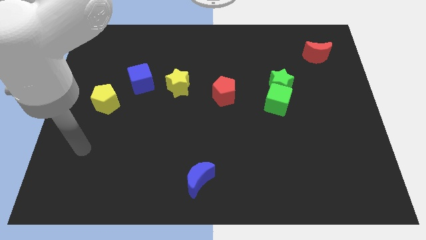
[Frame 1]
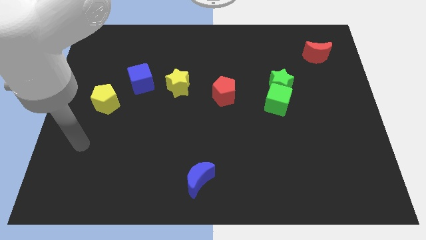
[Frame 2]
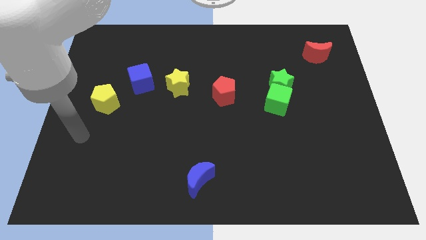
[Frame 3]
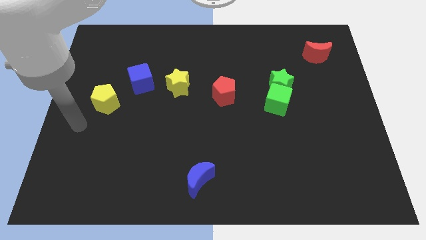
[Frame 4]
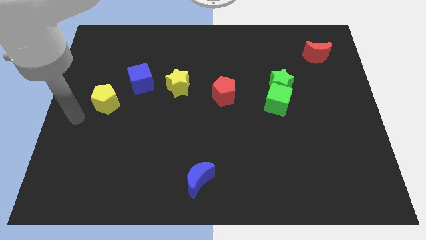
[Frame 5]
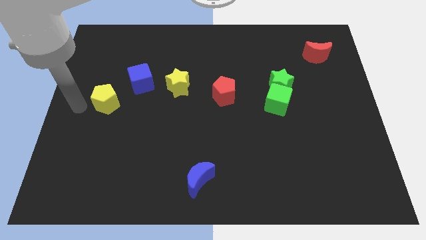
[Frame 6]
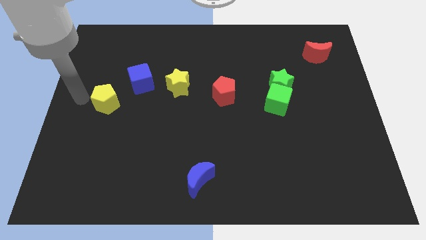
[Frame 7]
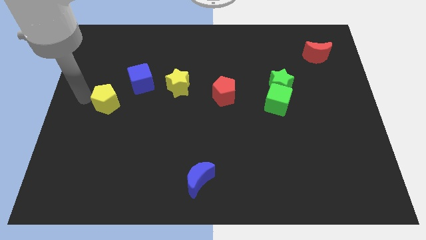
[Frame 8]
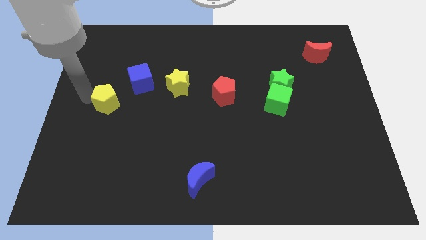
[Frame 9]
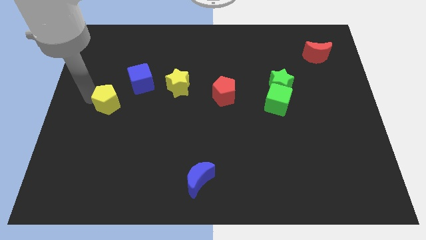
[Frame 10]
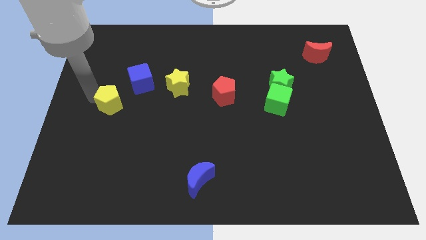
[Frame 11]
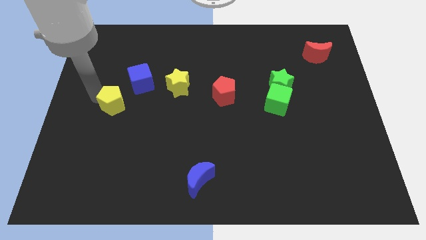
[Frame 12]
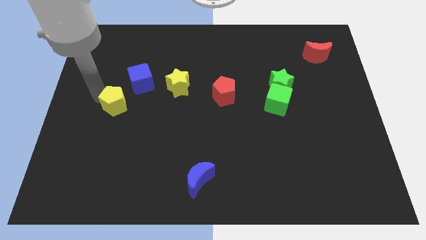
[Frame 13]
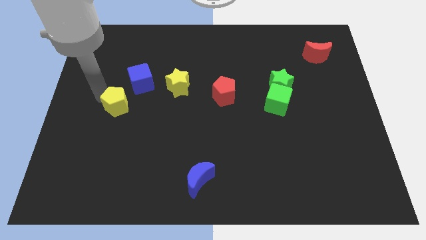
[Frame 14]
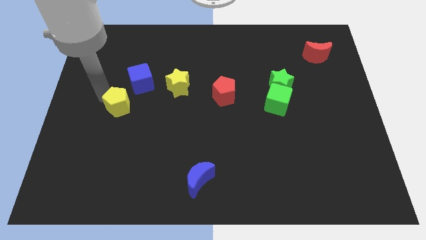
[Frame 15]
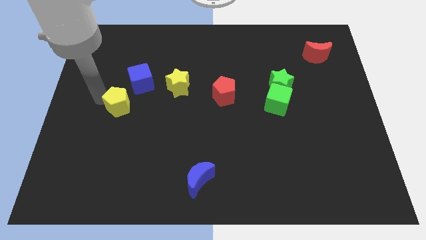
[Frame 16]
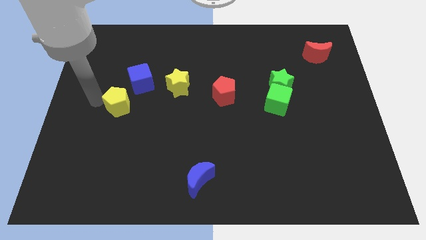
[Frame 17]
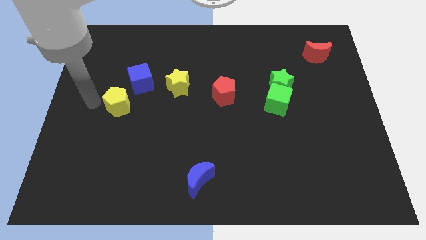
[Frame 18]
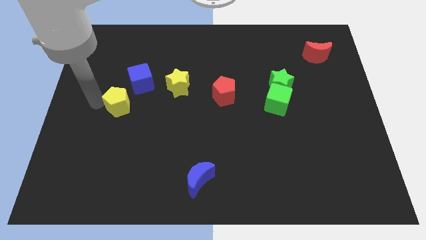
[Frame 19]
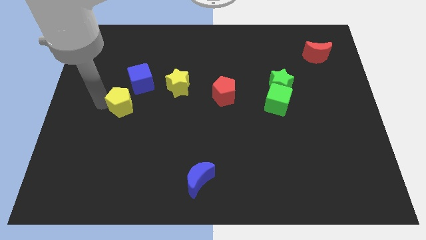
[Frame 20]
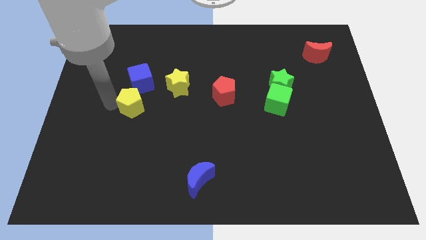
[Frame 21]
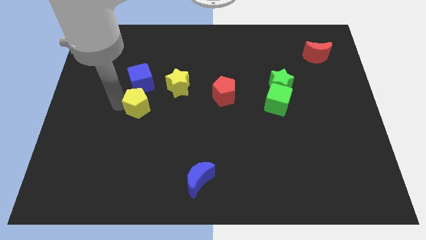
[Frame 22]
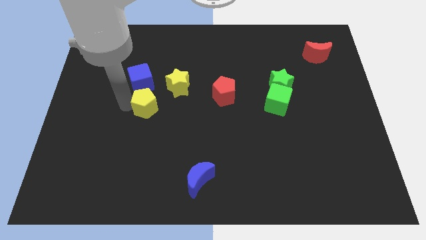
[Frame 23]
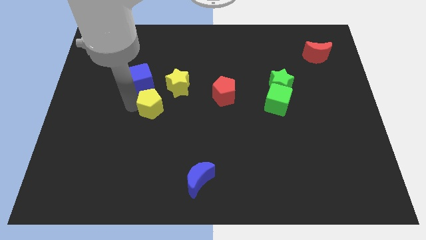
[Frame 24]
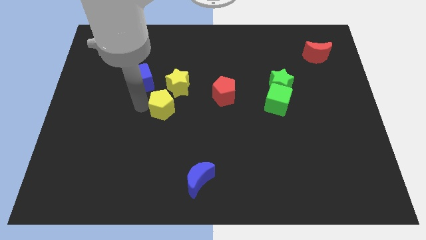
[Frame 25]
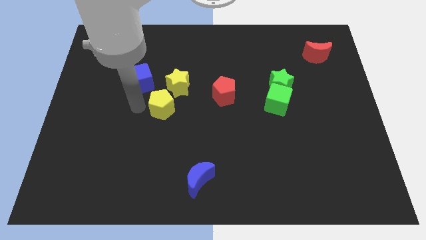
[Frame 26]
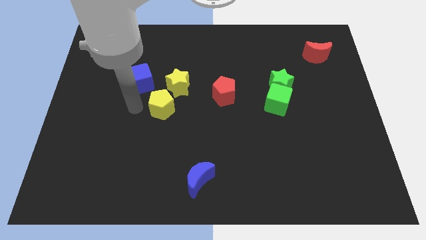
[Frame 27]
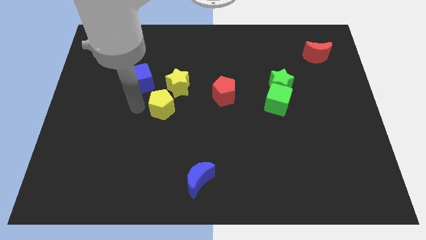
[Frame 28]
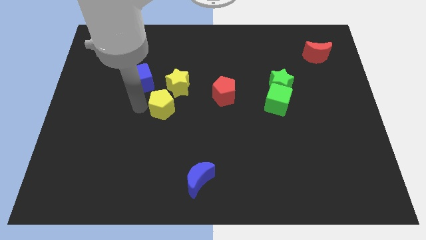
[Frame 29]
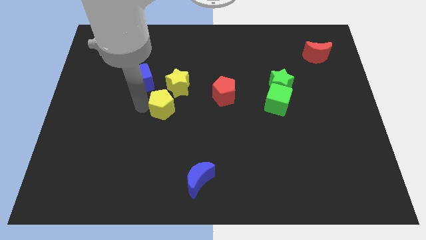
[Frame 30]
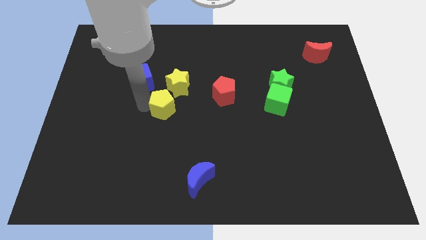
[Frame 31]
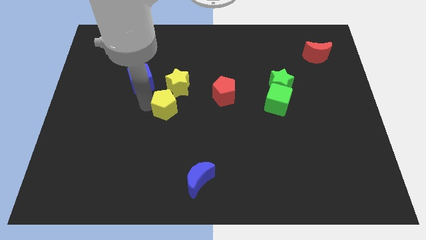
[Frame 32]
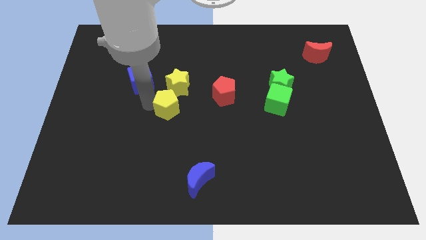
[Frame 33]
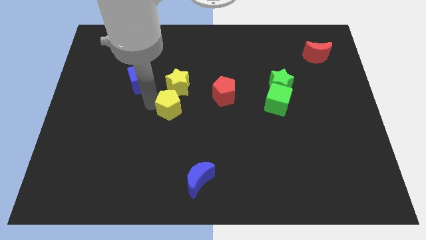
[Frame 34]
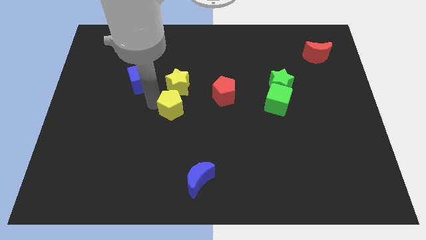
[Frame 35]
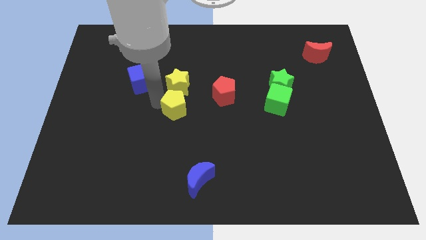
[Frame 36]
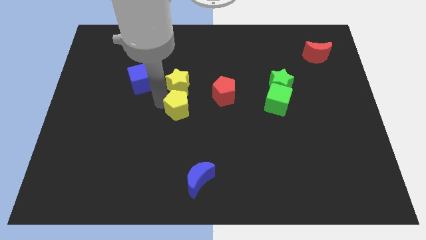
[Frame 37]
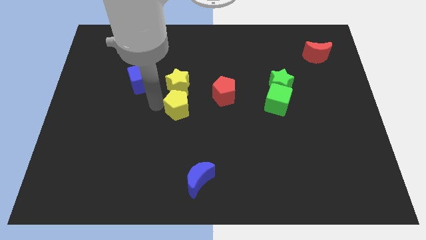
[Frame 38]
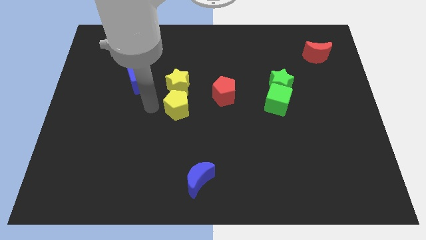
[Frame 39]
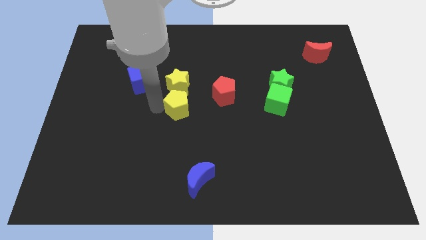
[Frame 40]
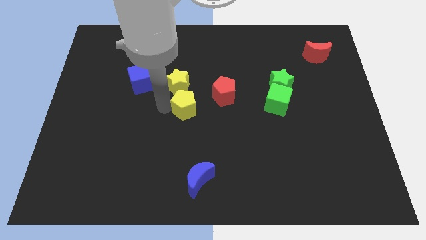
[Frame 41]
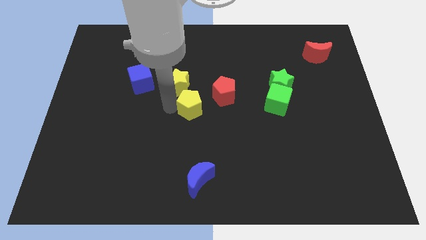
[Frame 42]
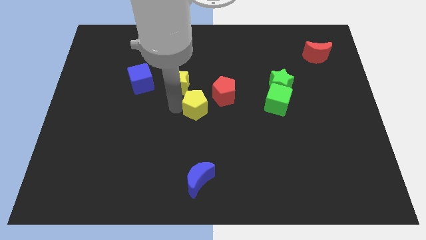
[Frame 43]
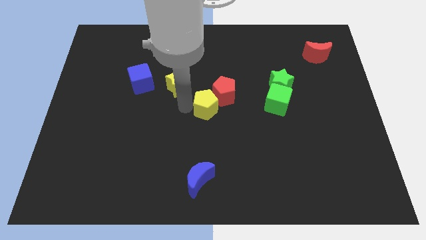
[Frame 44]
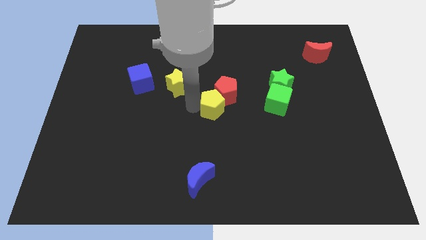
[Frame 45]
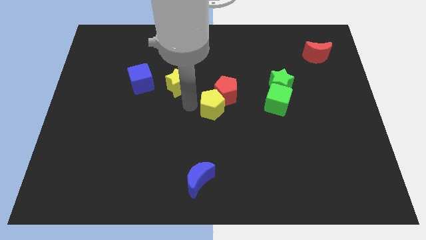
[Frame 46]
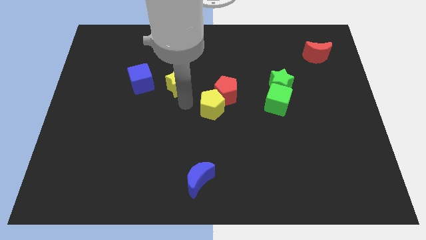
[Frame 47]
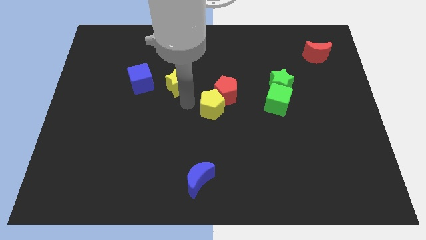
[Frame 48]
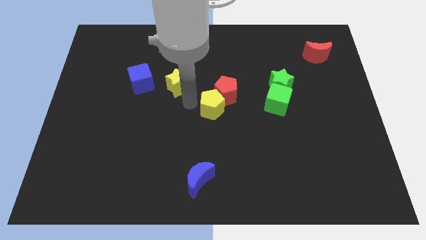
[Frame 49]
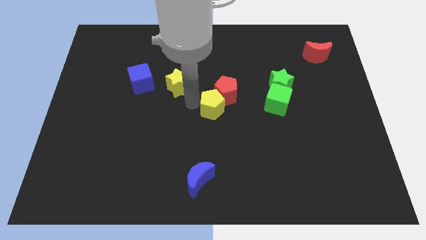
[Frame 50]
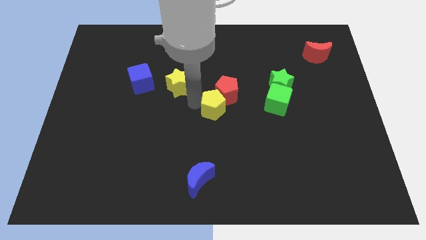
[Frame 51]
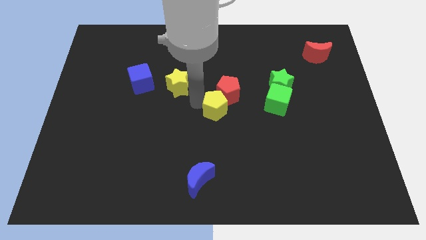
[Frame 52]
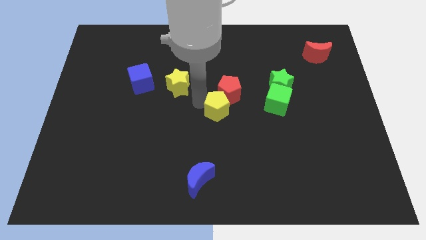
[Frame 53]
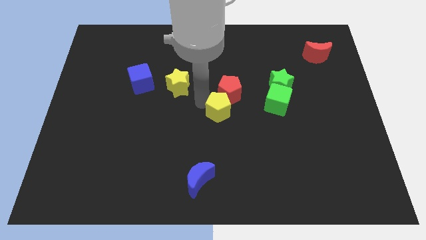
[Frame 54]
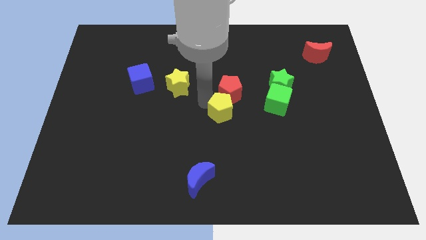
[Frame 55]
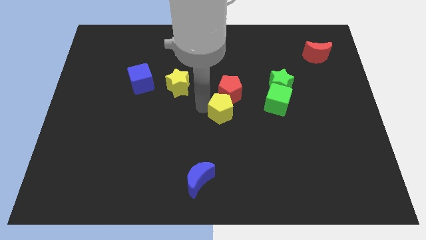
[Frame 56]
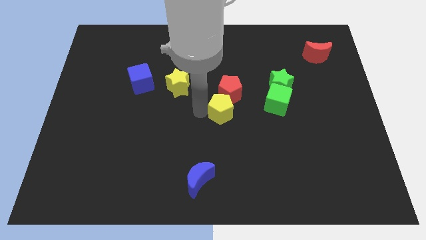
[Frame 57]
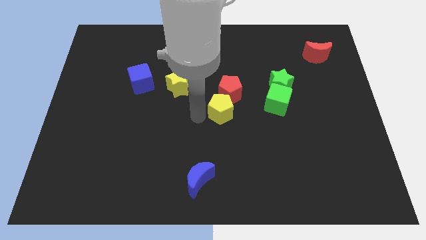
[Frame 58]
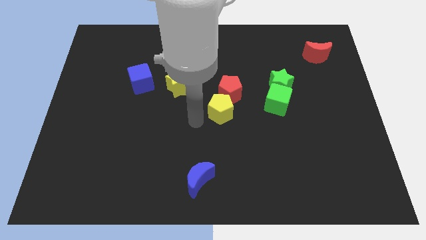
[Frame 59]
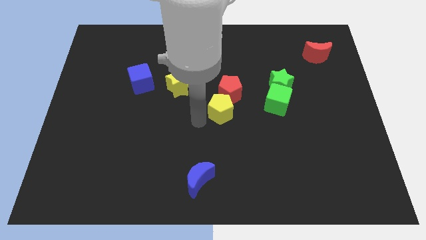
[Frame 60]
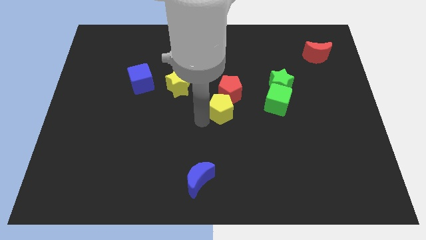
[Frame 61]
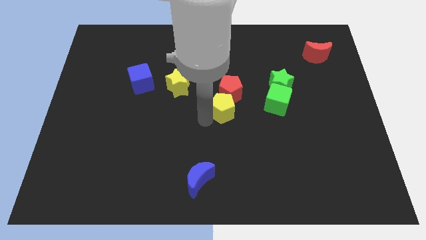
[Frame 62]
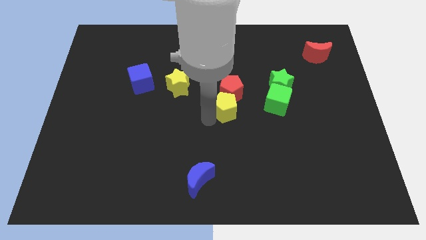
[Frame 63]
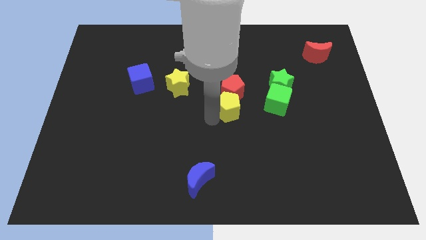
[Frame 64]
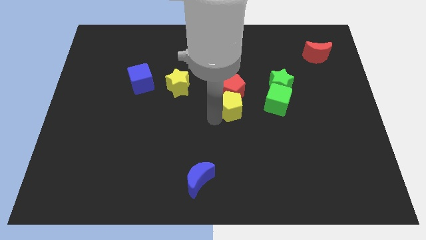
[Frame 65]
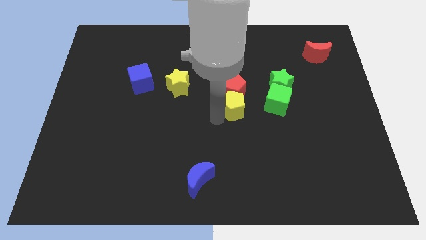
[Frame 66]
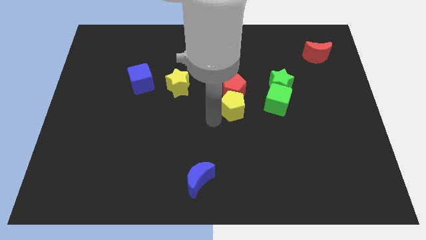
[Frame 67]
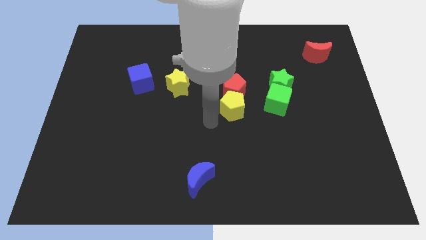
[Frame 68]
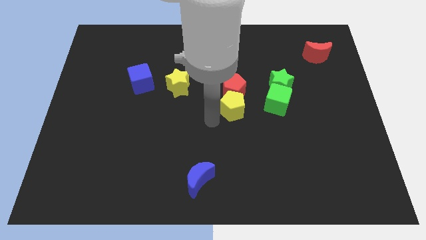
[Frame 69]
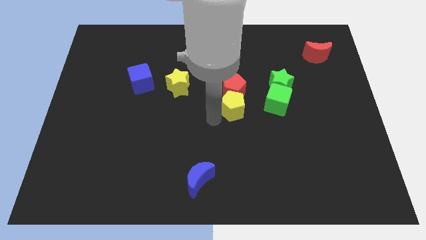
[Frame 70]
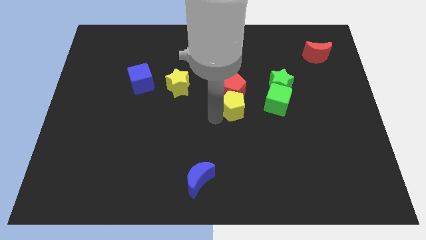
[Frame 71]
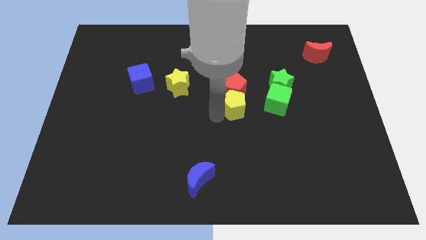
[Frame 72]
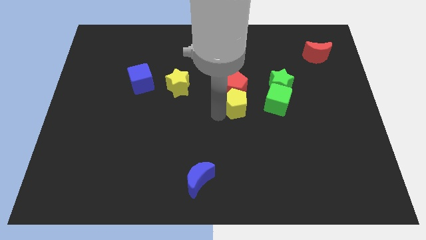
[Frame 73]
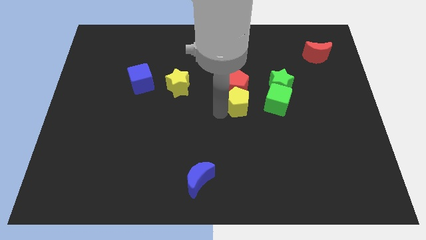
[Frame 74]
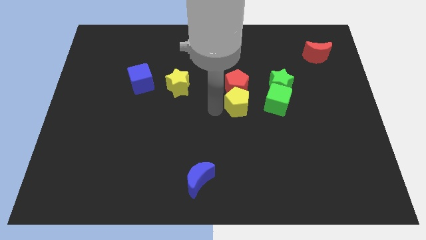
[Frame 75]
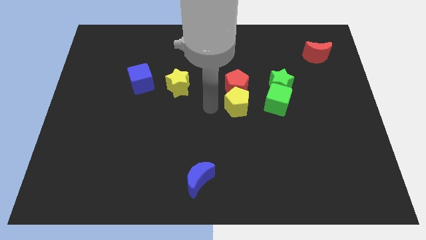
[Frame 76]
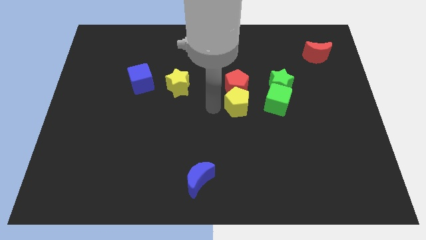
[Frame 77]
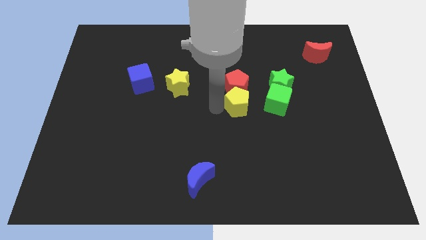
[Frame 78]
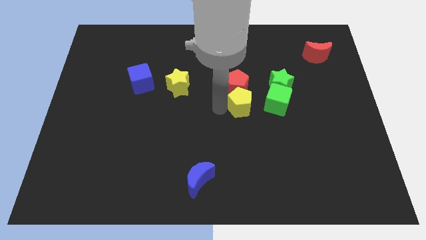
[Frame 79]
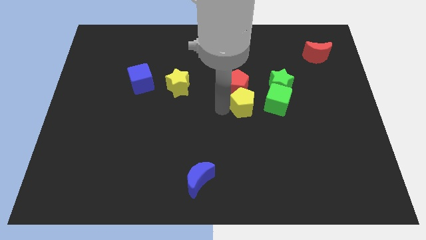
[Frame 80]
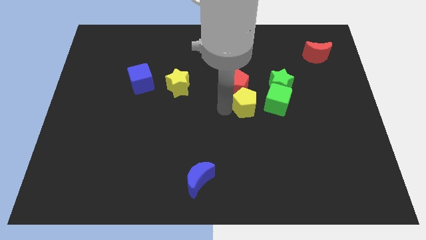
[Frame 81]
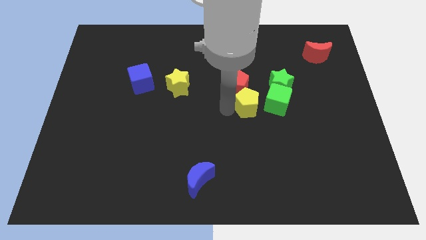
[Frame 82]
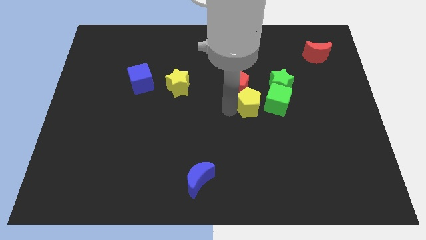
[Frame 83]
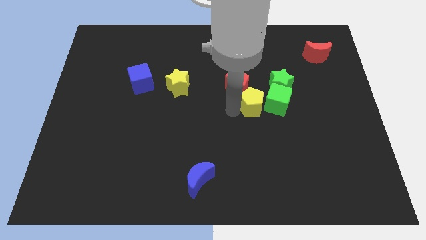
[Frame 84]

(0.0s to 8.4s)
put the yellow pentagon to the green cube
